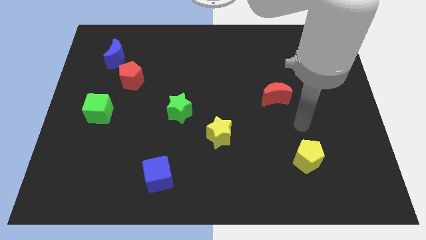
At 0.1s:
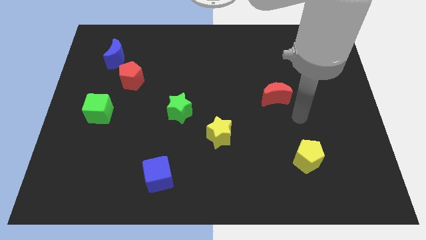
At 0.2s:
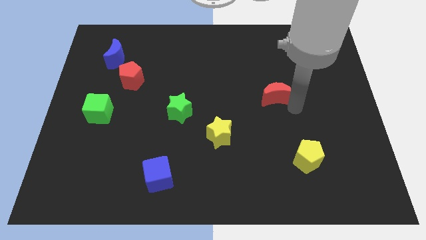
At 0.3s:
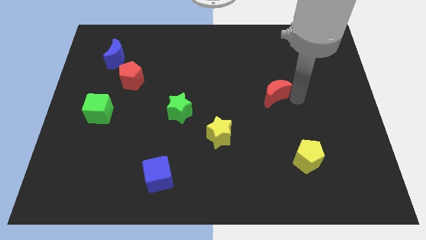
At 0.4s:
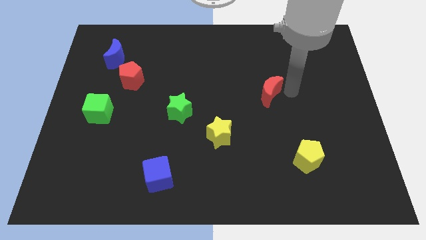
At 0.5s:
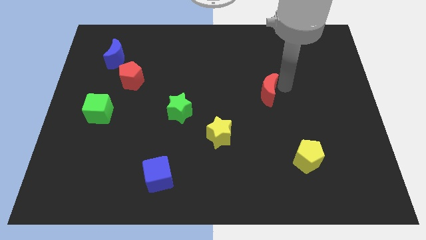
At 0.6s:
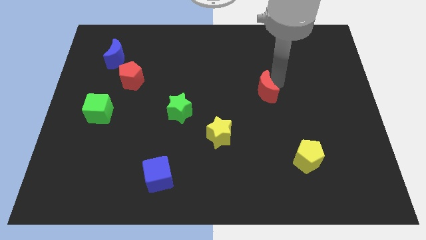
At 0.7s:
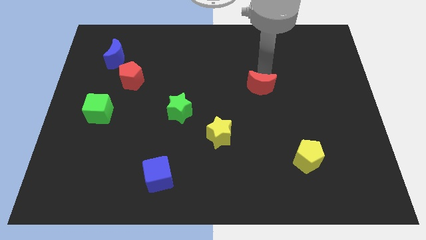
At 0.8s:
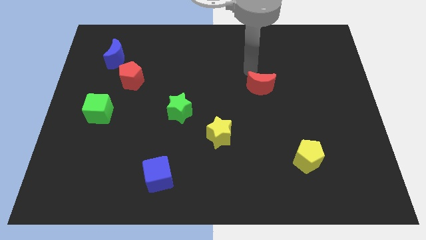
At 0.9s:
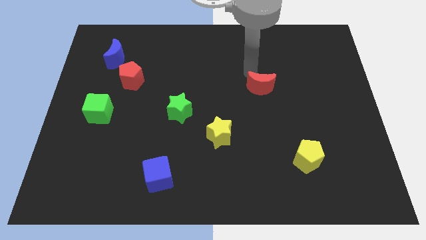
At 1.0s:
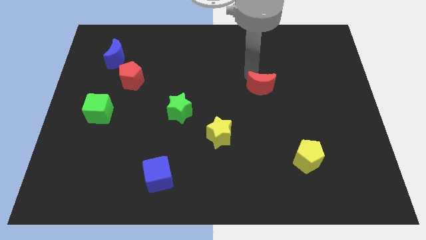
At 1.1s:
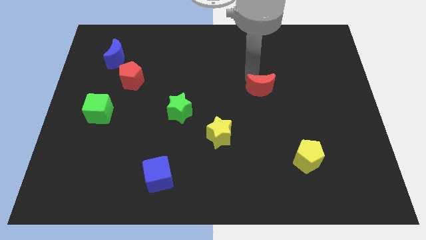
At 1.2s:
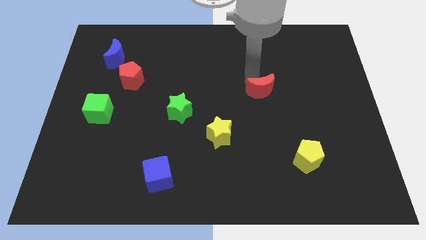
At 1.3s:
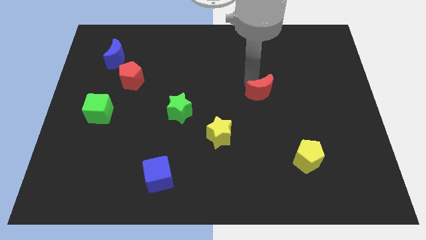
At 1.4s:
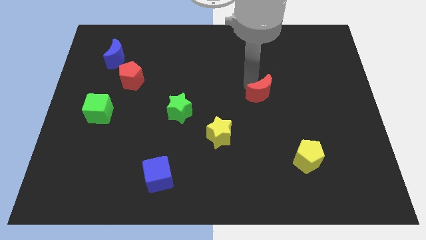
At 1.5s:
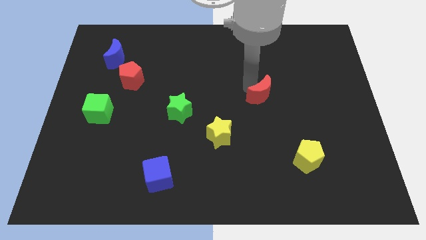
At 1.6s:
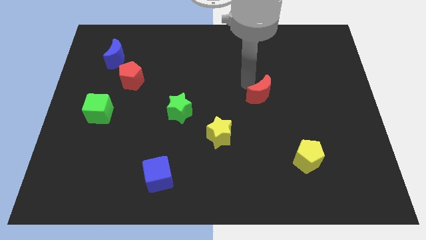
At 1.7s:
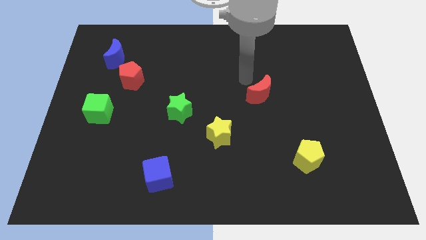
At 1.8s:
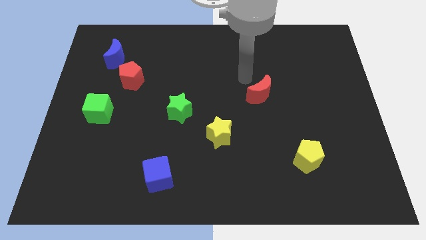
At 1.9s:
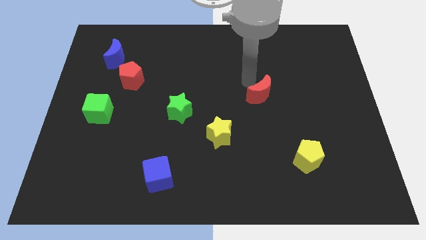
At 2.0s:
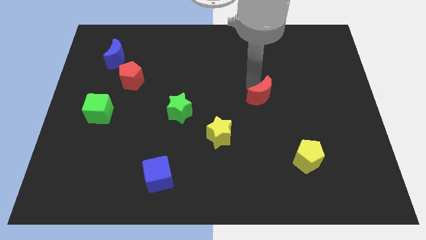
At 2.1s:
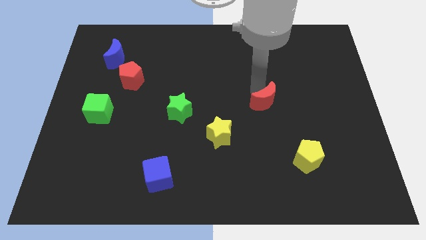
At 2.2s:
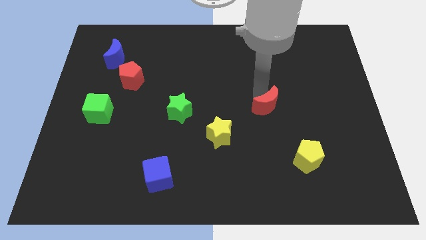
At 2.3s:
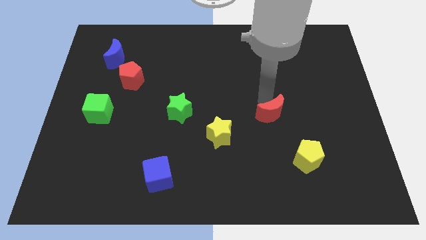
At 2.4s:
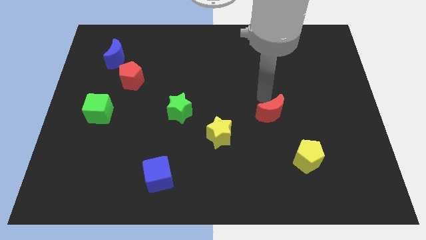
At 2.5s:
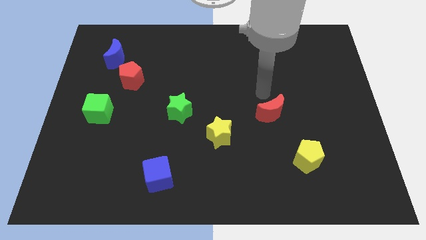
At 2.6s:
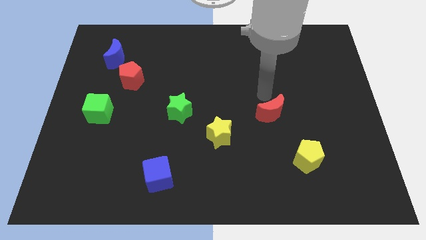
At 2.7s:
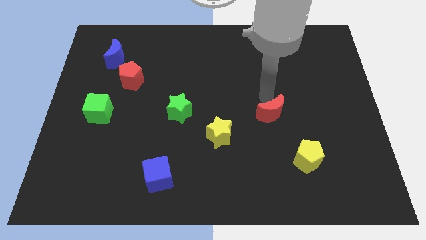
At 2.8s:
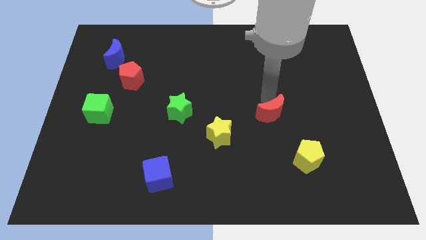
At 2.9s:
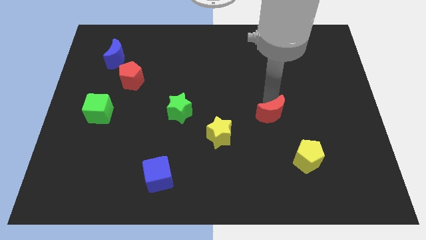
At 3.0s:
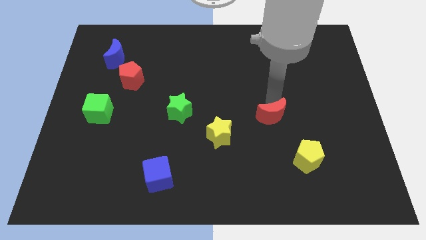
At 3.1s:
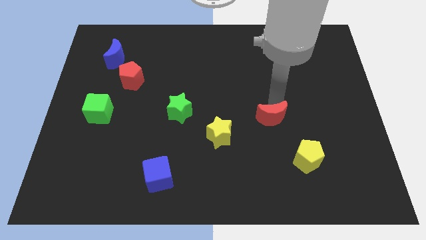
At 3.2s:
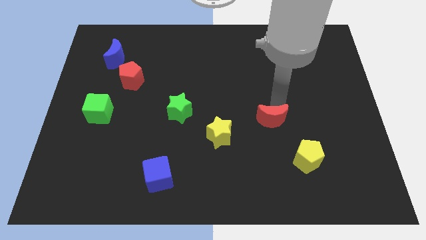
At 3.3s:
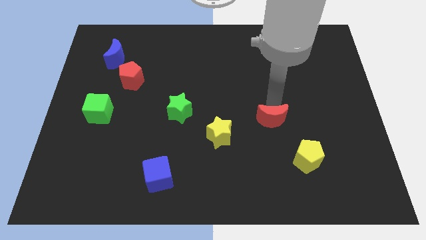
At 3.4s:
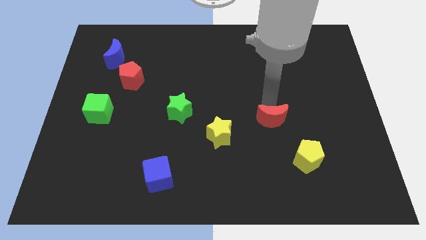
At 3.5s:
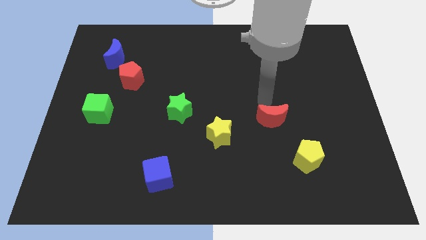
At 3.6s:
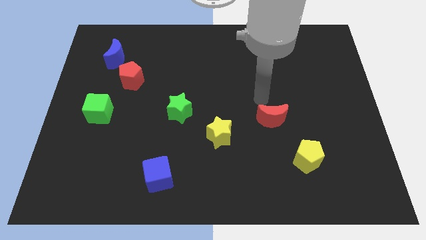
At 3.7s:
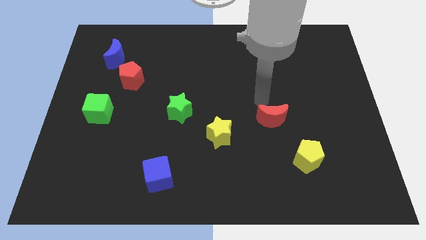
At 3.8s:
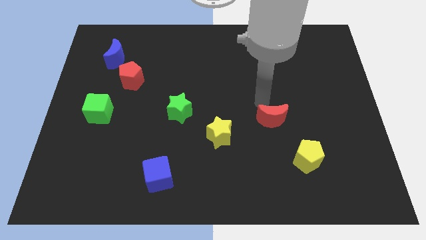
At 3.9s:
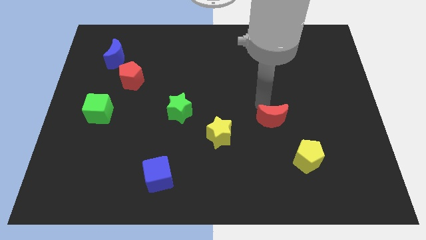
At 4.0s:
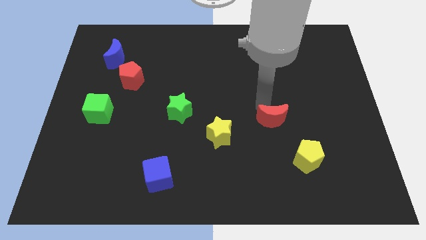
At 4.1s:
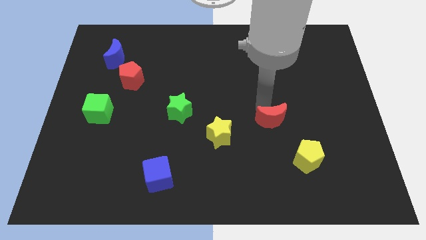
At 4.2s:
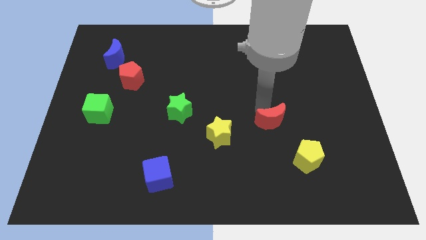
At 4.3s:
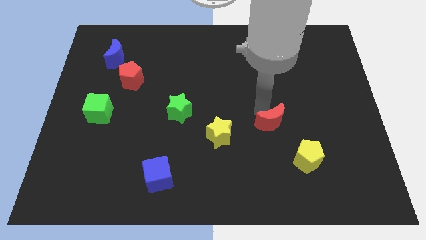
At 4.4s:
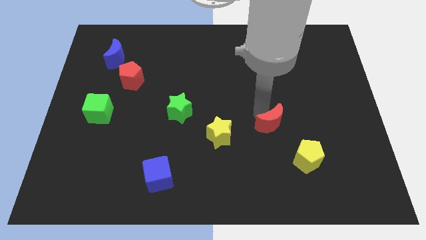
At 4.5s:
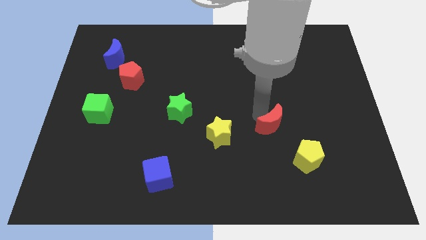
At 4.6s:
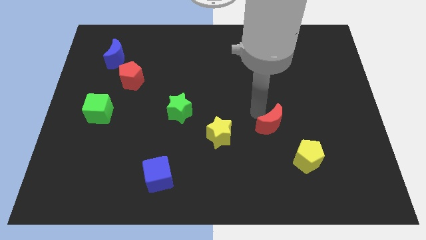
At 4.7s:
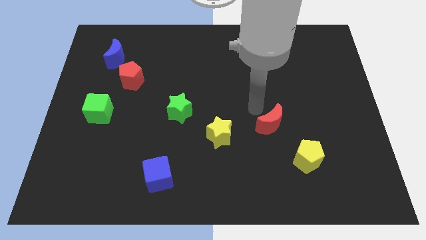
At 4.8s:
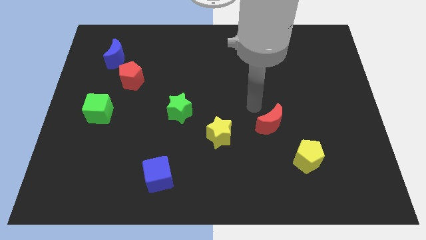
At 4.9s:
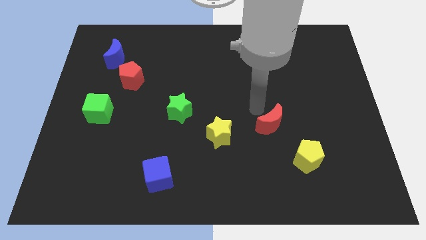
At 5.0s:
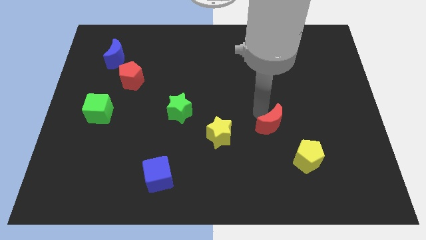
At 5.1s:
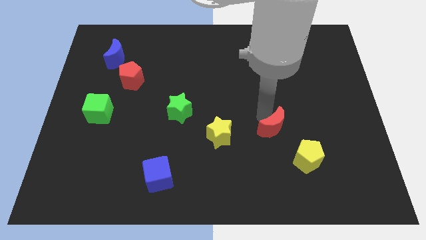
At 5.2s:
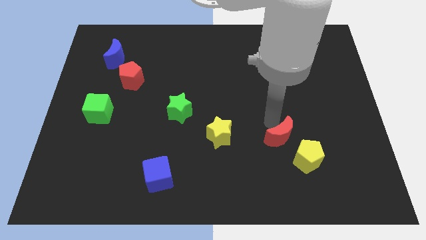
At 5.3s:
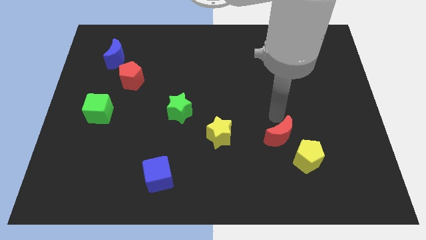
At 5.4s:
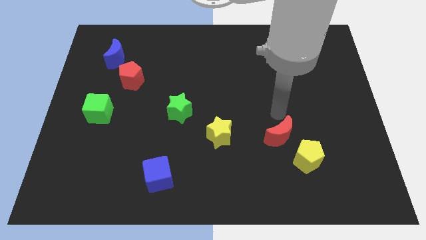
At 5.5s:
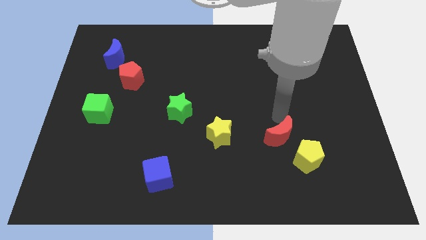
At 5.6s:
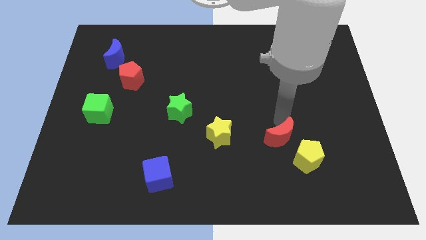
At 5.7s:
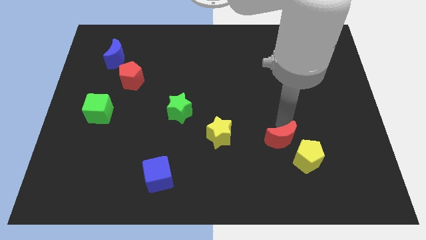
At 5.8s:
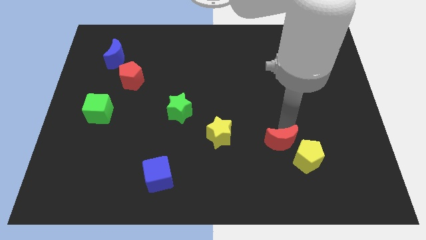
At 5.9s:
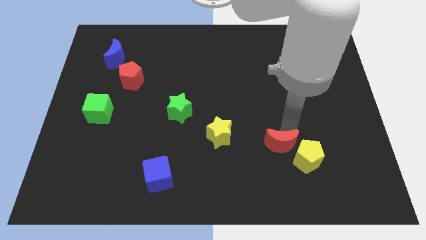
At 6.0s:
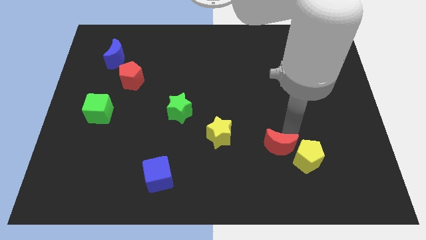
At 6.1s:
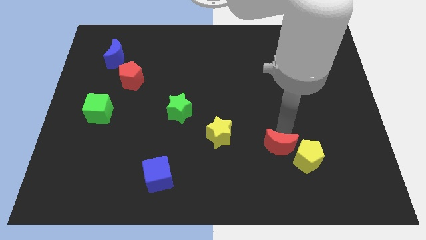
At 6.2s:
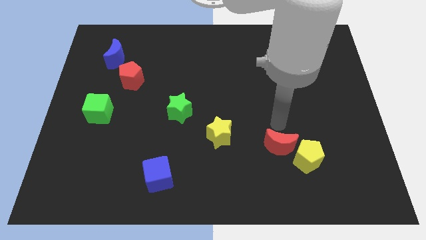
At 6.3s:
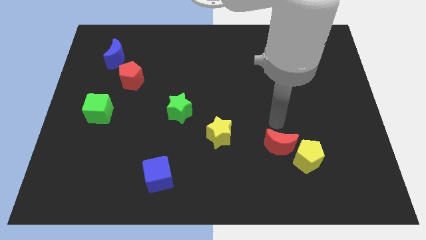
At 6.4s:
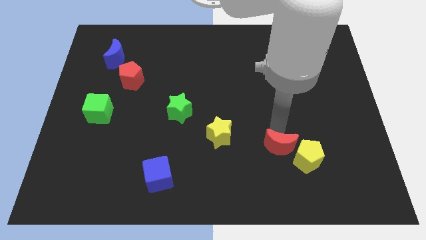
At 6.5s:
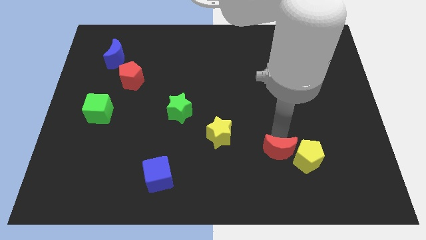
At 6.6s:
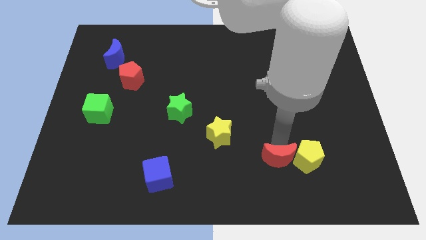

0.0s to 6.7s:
move the red moon diagonally down and to the left of the yellow pentagon
